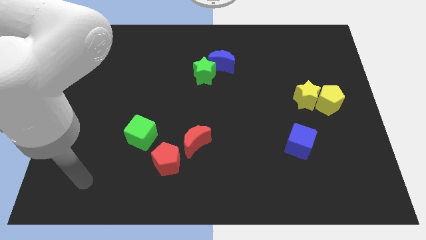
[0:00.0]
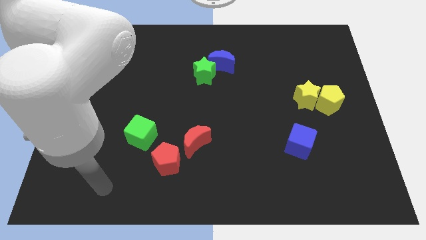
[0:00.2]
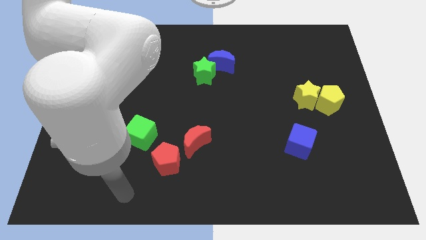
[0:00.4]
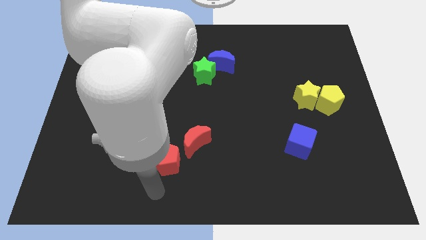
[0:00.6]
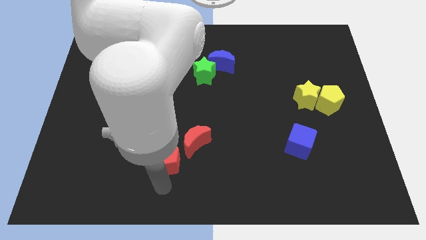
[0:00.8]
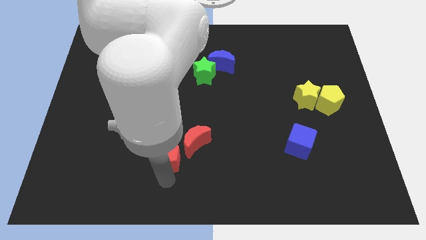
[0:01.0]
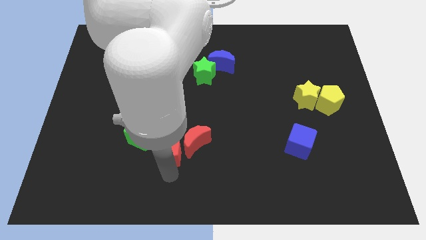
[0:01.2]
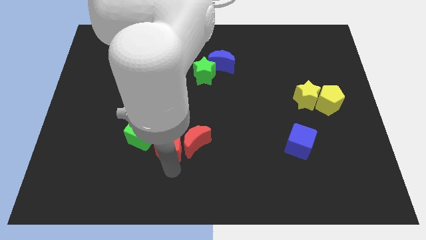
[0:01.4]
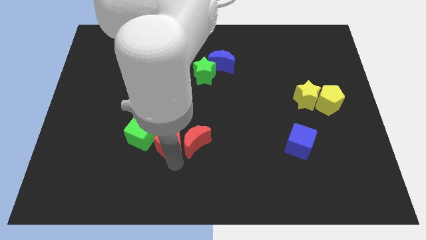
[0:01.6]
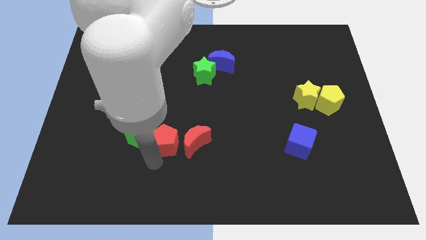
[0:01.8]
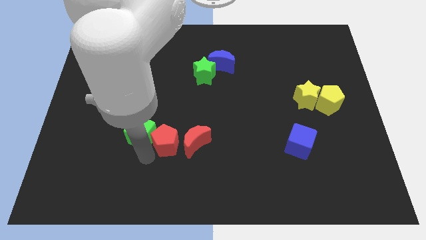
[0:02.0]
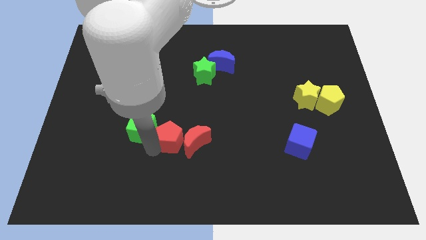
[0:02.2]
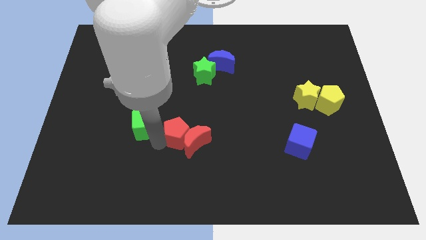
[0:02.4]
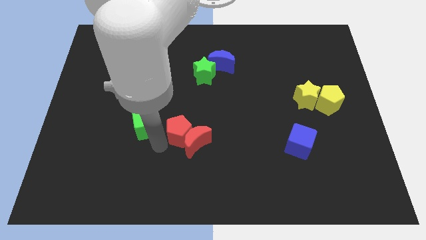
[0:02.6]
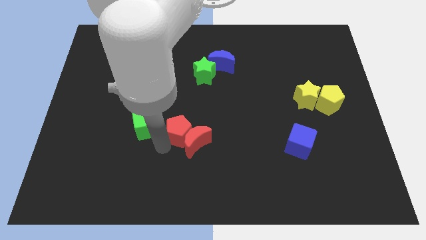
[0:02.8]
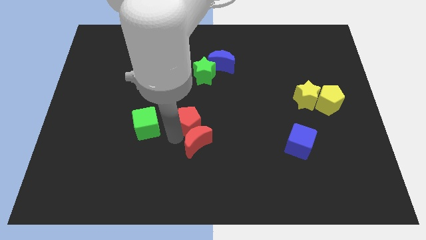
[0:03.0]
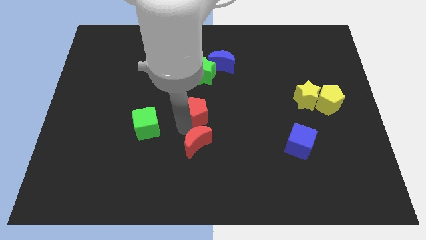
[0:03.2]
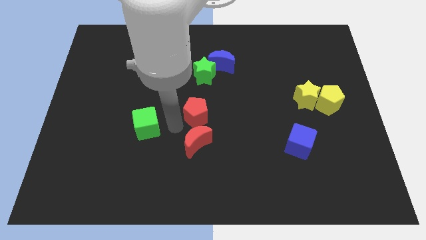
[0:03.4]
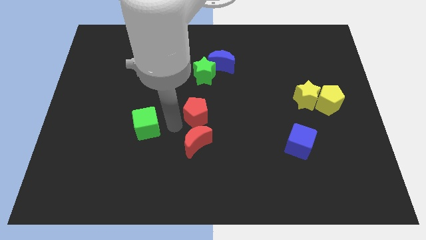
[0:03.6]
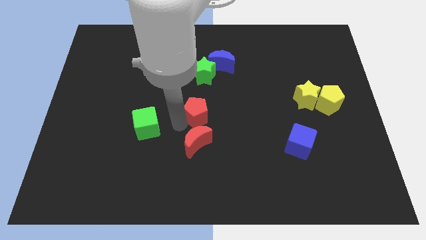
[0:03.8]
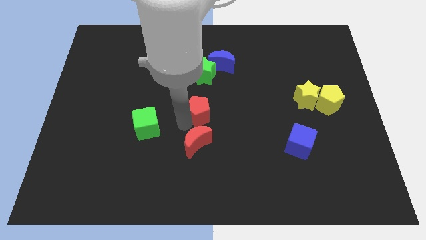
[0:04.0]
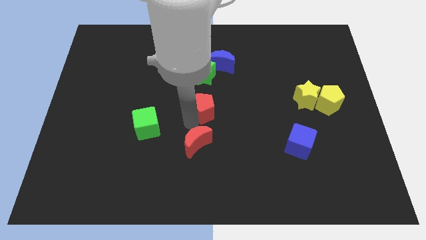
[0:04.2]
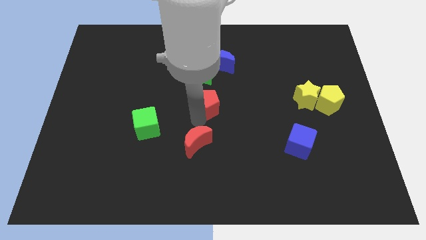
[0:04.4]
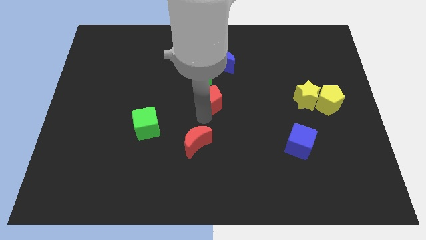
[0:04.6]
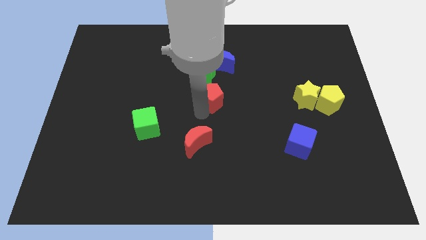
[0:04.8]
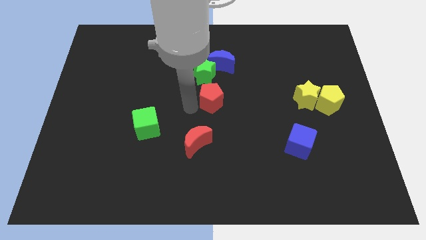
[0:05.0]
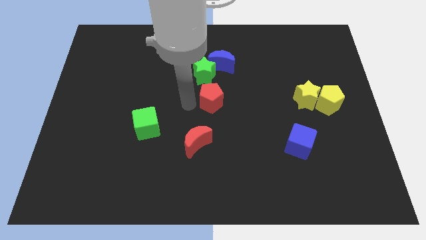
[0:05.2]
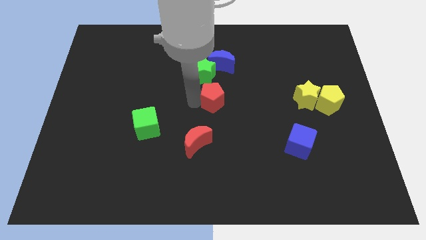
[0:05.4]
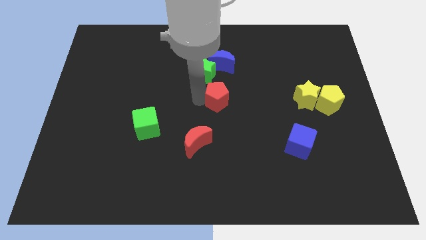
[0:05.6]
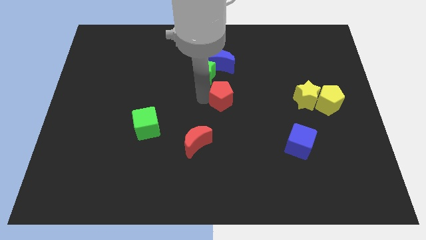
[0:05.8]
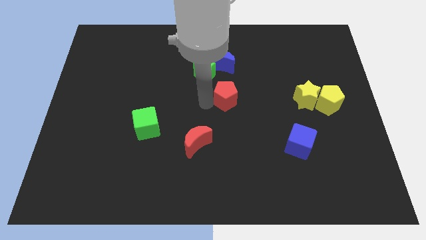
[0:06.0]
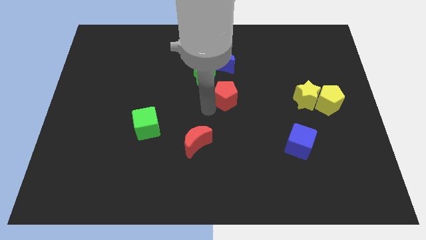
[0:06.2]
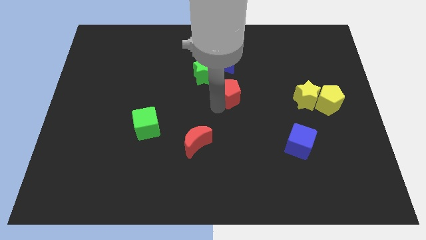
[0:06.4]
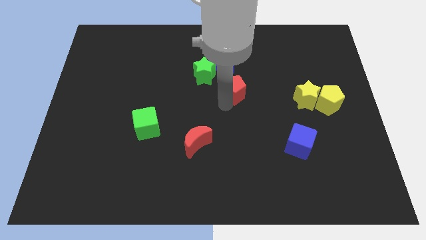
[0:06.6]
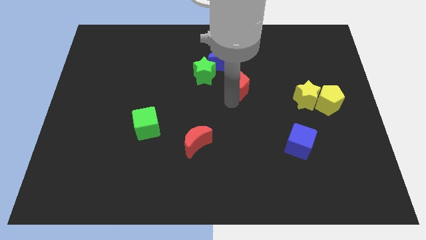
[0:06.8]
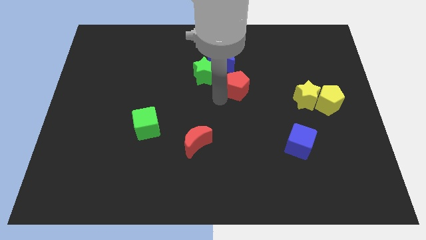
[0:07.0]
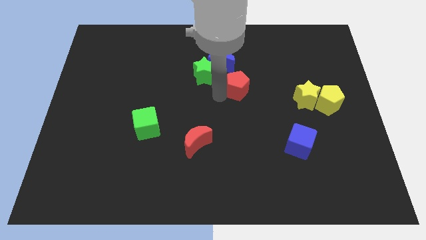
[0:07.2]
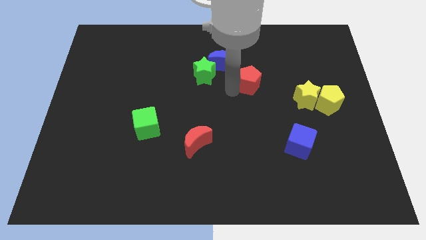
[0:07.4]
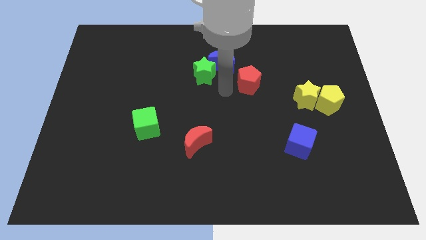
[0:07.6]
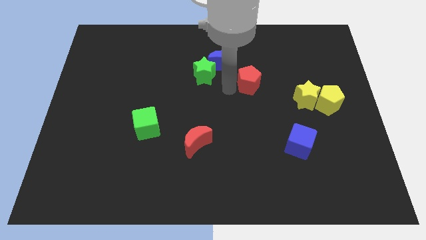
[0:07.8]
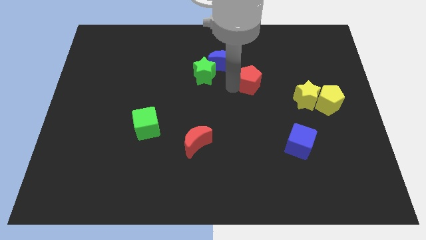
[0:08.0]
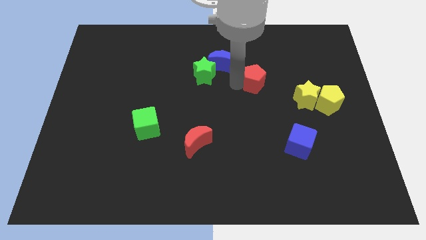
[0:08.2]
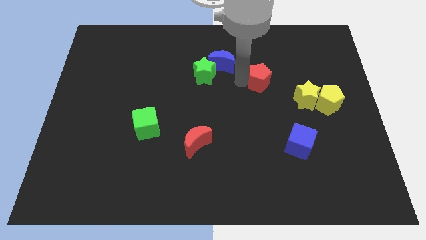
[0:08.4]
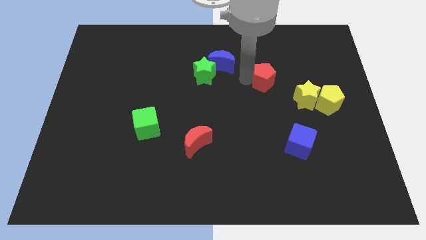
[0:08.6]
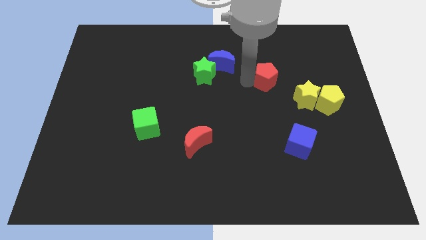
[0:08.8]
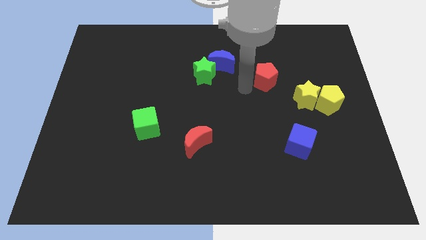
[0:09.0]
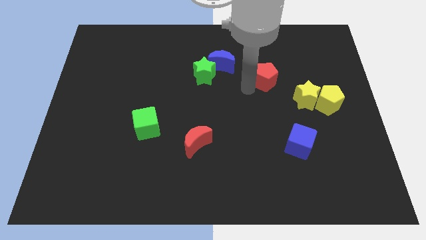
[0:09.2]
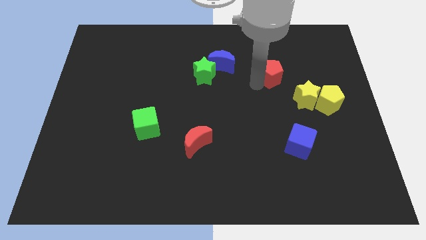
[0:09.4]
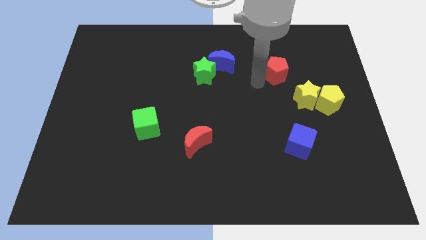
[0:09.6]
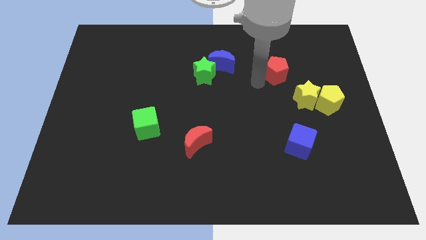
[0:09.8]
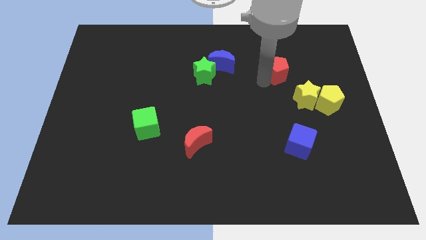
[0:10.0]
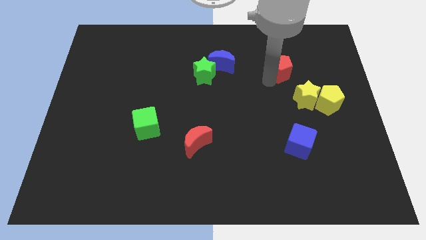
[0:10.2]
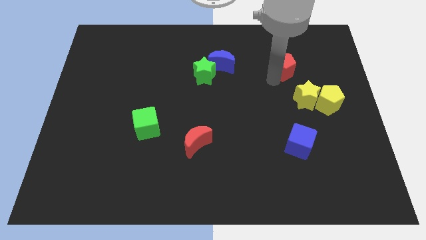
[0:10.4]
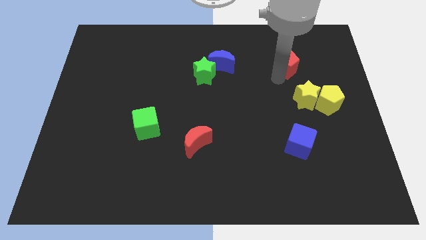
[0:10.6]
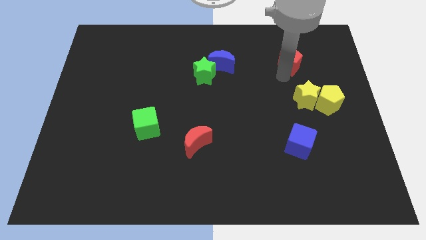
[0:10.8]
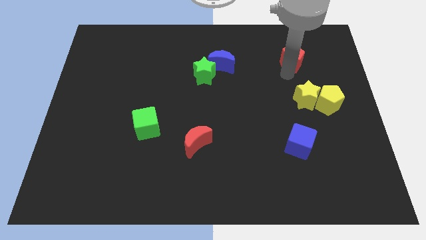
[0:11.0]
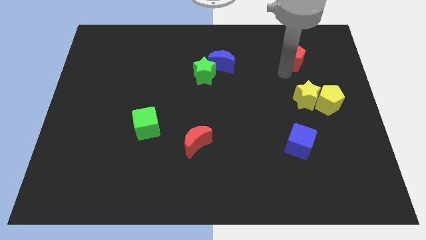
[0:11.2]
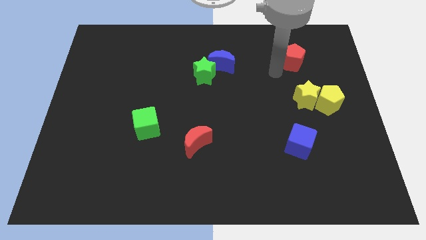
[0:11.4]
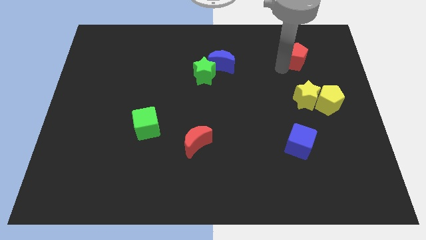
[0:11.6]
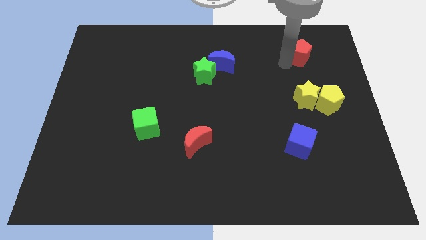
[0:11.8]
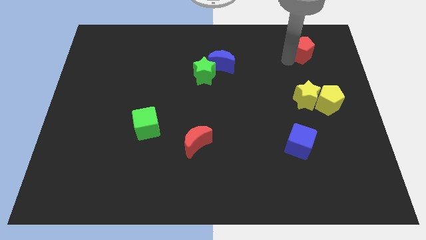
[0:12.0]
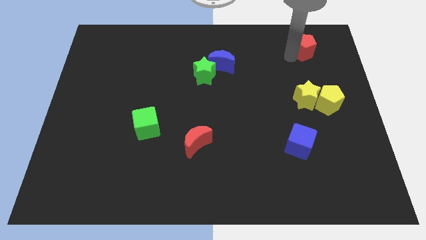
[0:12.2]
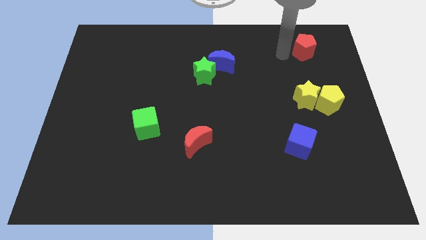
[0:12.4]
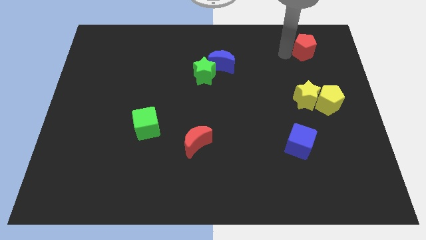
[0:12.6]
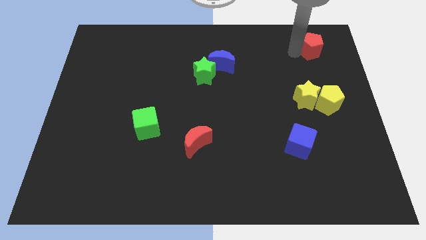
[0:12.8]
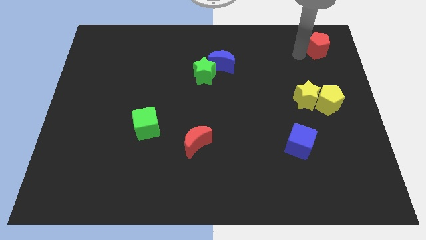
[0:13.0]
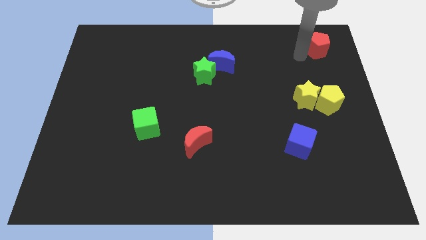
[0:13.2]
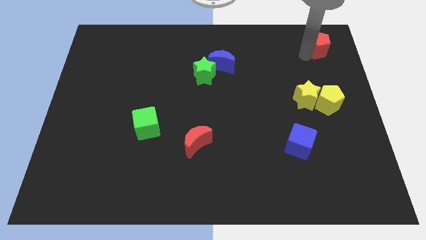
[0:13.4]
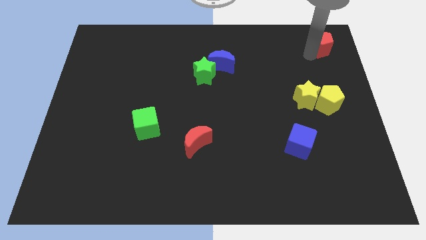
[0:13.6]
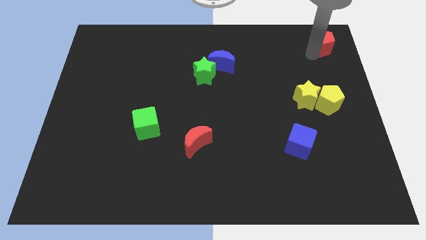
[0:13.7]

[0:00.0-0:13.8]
push the red pentagon to the top right of the board
